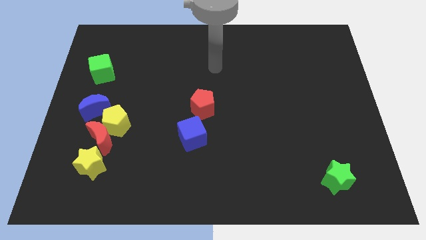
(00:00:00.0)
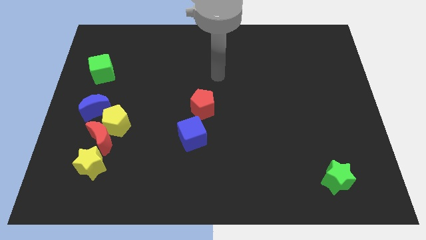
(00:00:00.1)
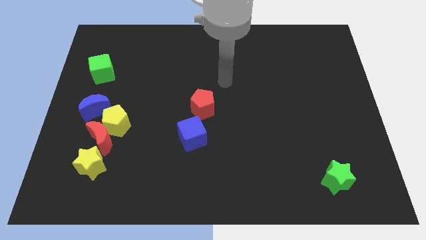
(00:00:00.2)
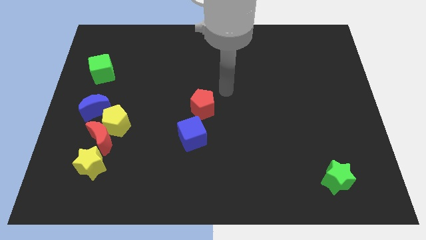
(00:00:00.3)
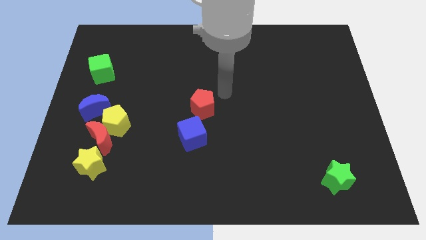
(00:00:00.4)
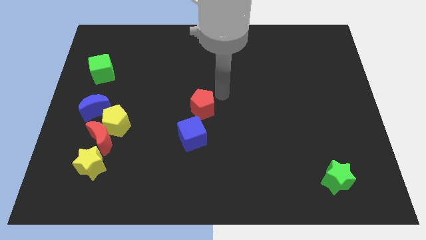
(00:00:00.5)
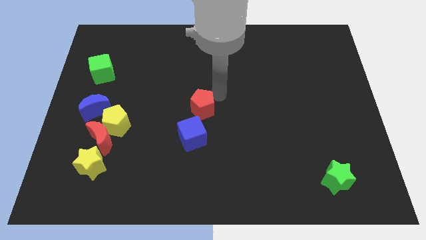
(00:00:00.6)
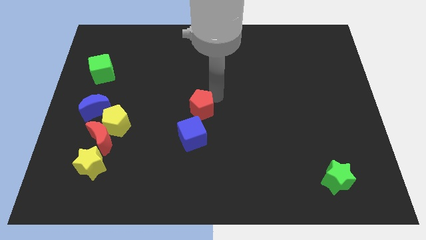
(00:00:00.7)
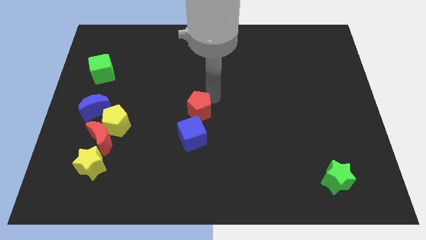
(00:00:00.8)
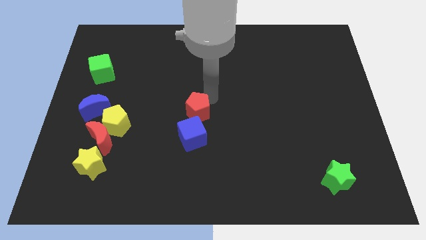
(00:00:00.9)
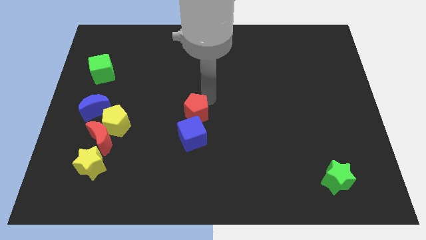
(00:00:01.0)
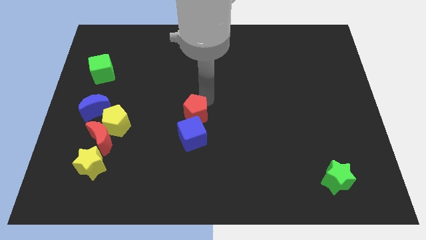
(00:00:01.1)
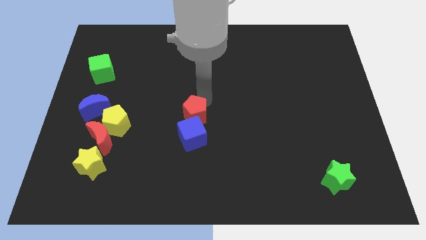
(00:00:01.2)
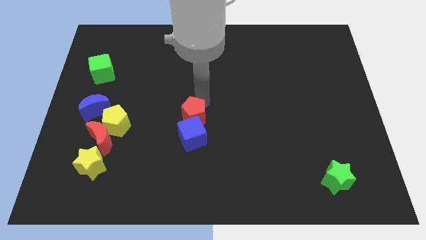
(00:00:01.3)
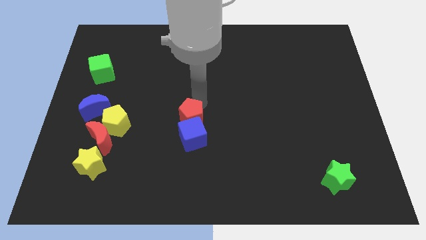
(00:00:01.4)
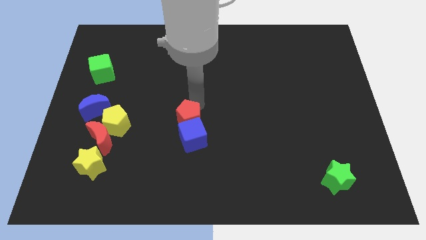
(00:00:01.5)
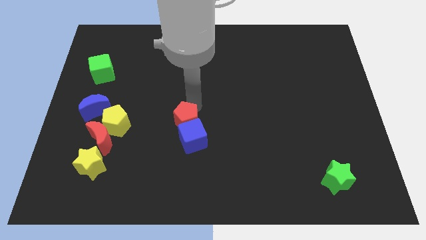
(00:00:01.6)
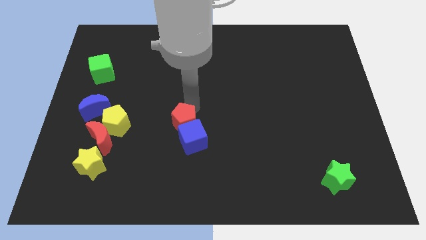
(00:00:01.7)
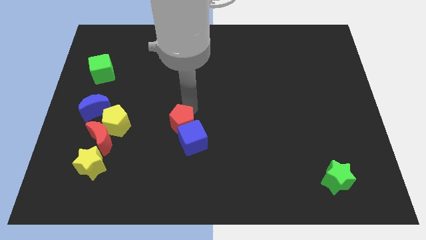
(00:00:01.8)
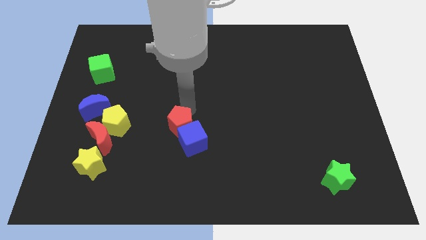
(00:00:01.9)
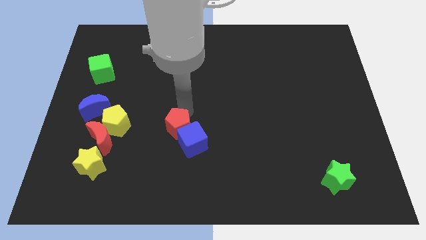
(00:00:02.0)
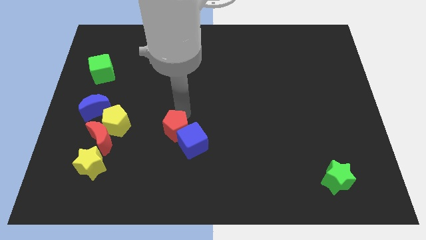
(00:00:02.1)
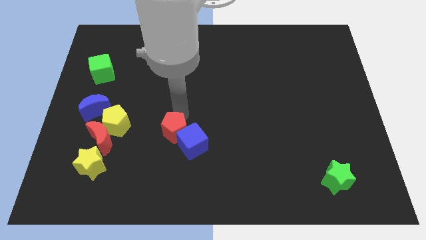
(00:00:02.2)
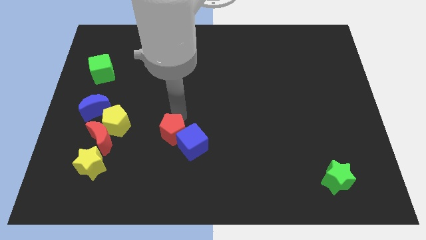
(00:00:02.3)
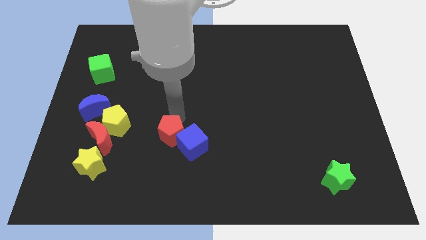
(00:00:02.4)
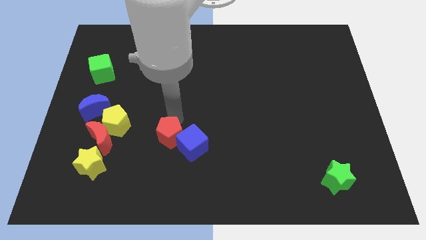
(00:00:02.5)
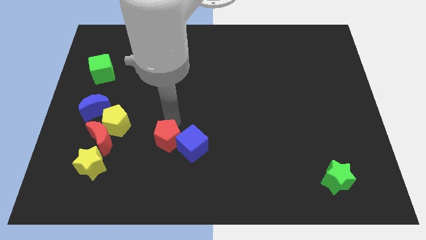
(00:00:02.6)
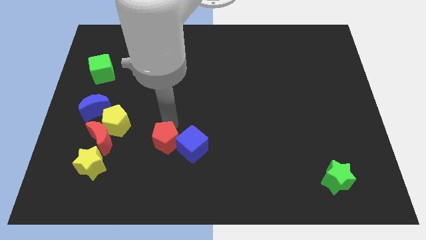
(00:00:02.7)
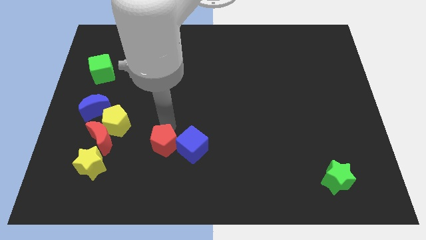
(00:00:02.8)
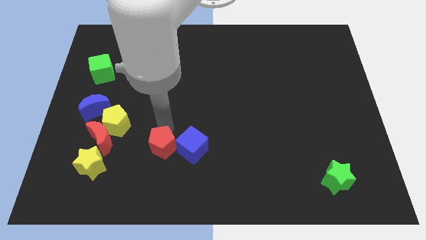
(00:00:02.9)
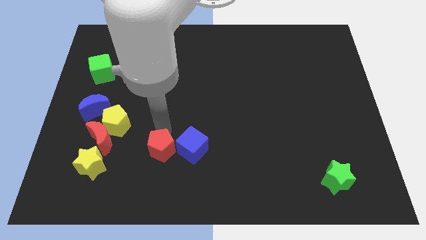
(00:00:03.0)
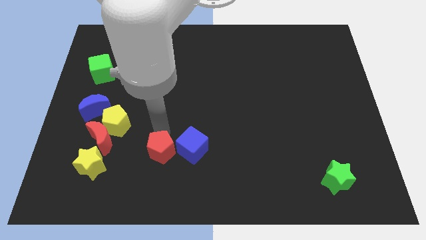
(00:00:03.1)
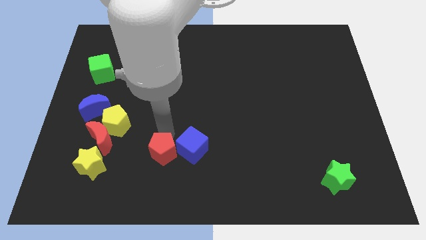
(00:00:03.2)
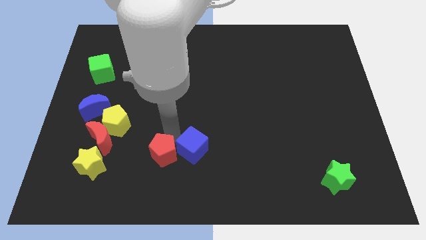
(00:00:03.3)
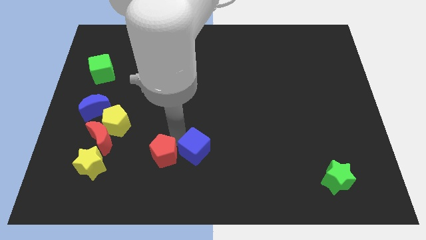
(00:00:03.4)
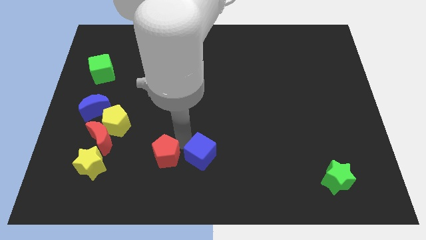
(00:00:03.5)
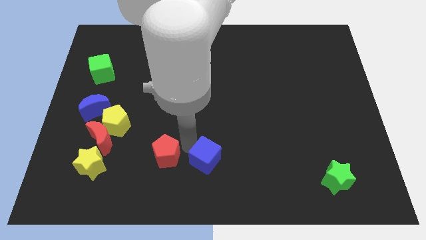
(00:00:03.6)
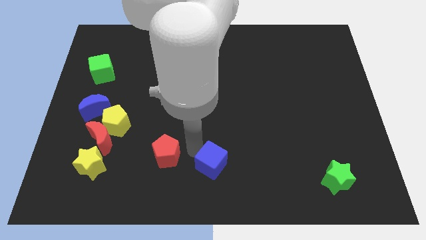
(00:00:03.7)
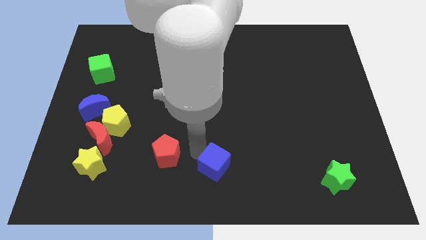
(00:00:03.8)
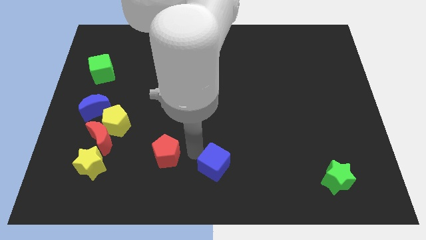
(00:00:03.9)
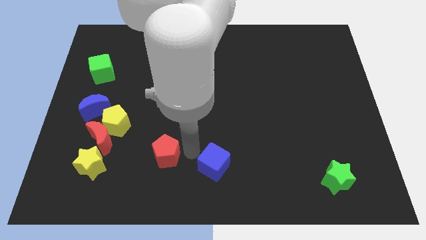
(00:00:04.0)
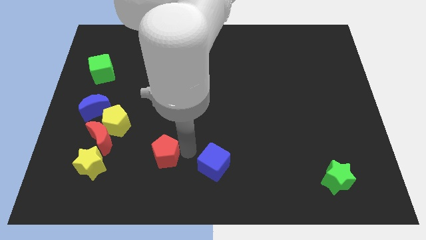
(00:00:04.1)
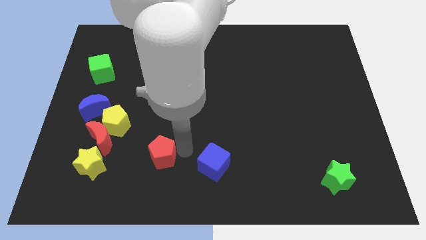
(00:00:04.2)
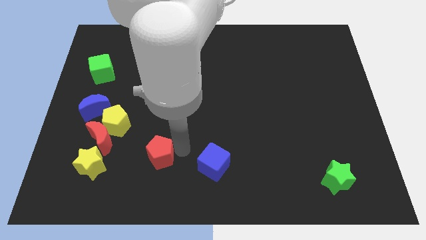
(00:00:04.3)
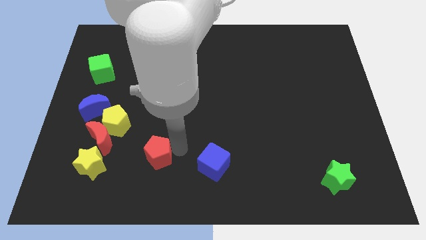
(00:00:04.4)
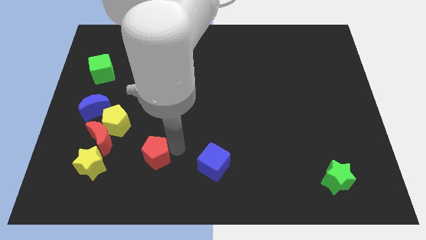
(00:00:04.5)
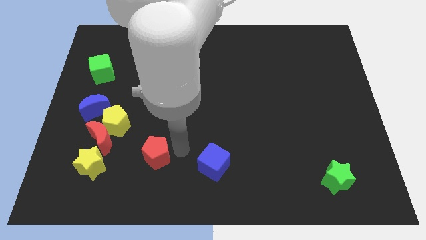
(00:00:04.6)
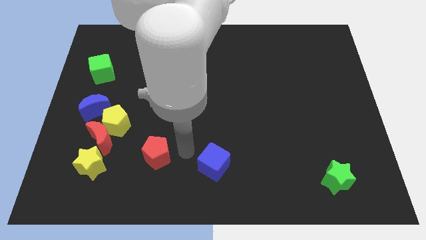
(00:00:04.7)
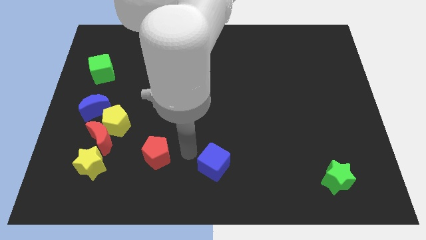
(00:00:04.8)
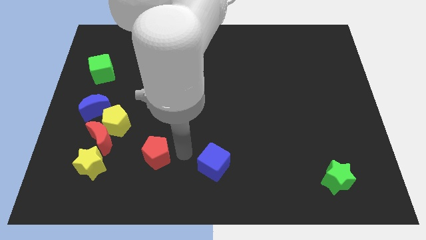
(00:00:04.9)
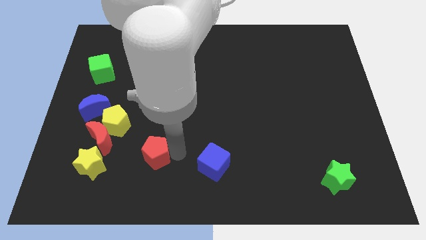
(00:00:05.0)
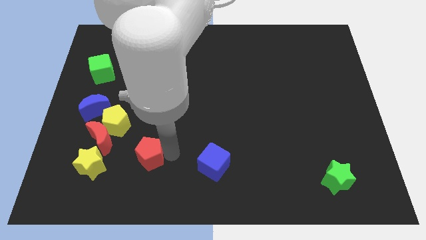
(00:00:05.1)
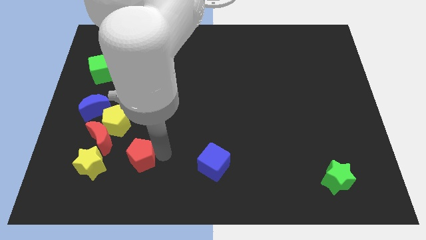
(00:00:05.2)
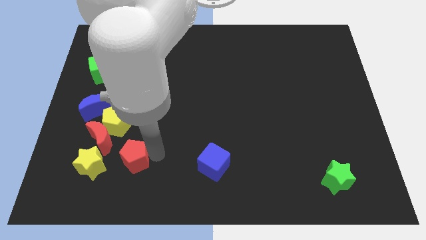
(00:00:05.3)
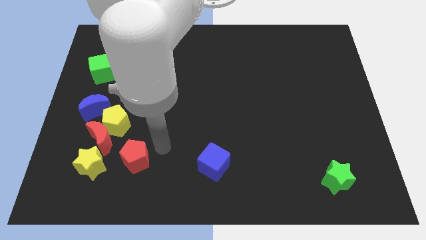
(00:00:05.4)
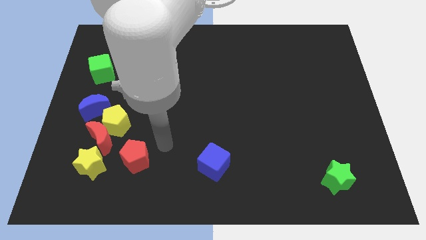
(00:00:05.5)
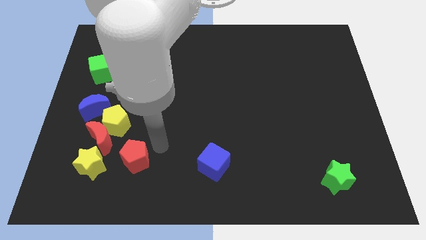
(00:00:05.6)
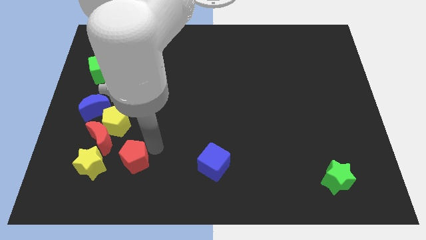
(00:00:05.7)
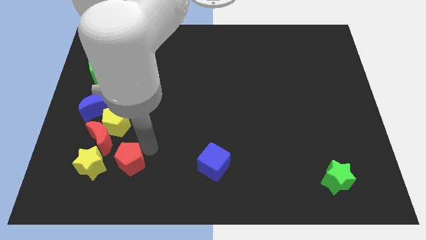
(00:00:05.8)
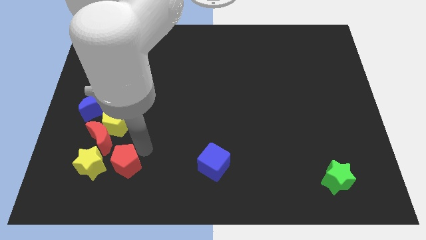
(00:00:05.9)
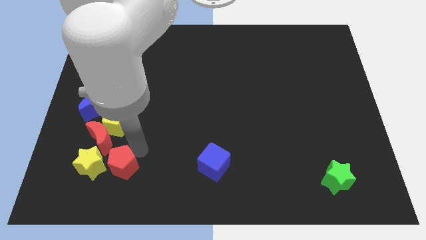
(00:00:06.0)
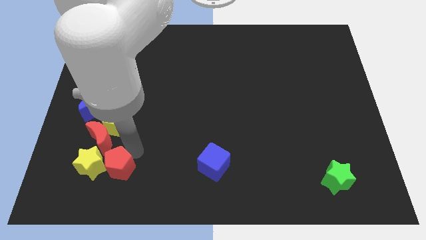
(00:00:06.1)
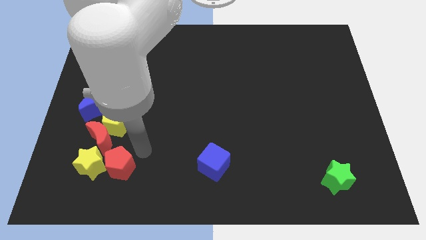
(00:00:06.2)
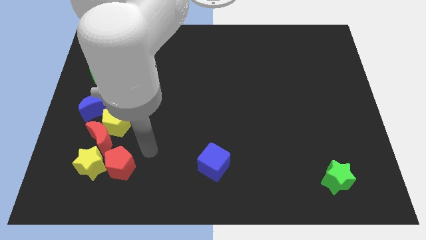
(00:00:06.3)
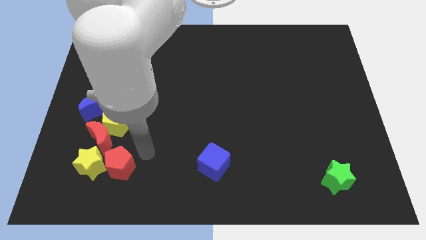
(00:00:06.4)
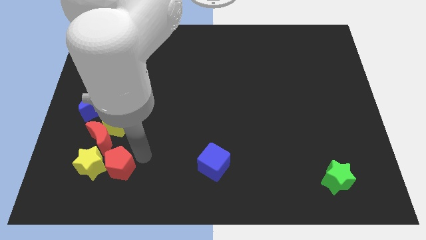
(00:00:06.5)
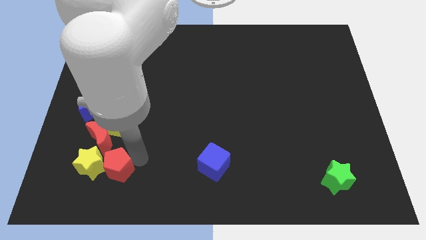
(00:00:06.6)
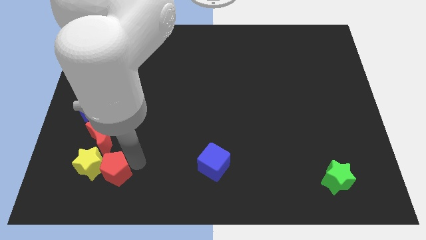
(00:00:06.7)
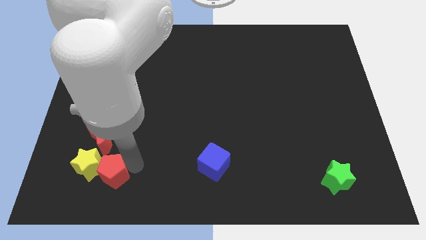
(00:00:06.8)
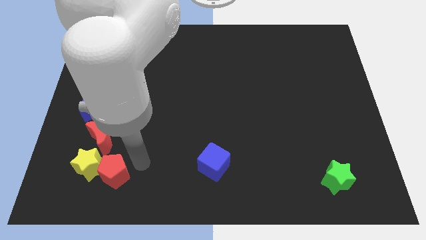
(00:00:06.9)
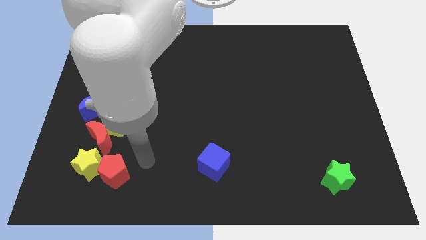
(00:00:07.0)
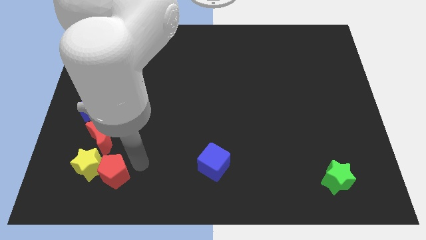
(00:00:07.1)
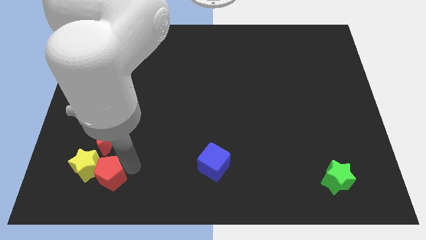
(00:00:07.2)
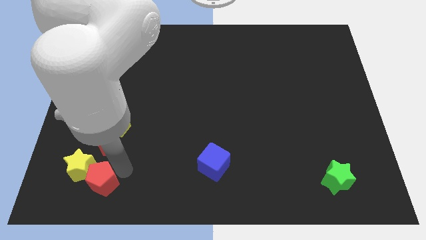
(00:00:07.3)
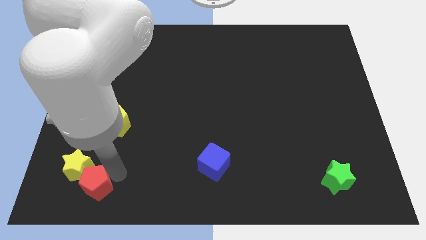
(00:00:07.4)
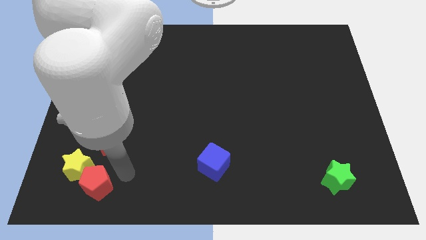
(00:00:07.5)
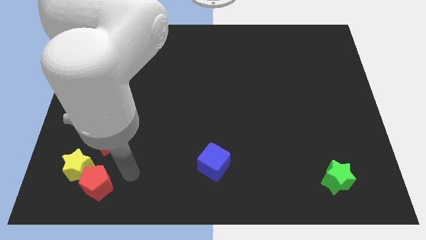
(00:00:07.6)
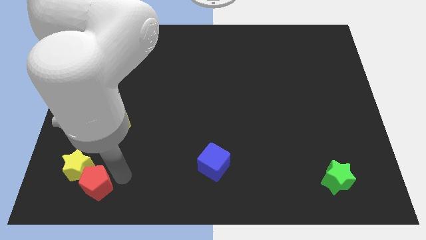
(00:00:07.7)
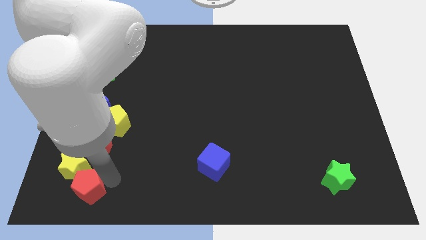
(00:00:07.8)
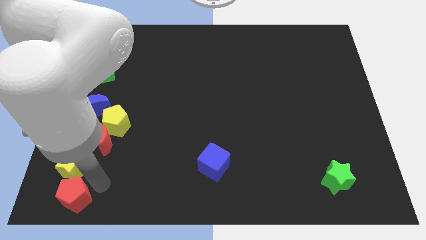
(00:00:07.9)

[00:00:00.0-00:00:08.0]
push the red pentagon to the bottom left
